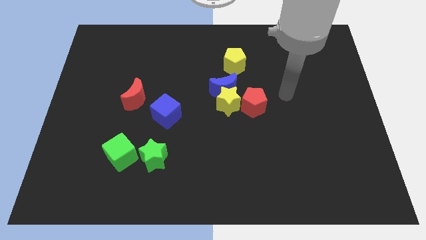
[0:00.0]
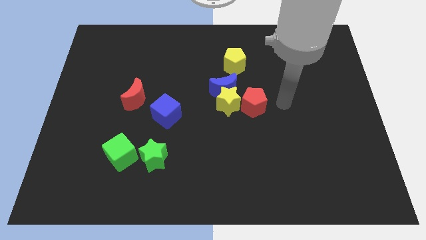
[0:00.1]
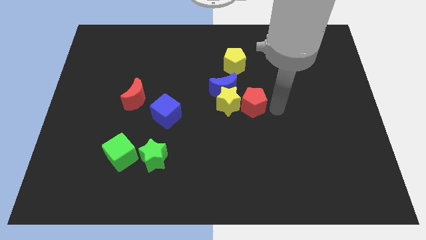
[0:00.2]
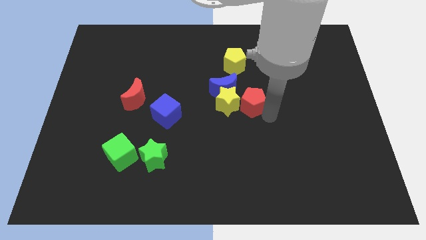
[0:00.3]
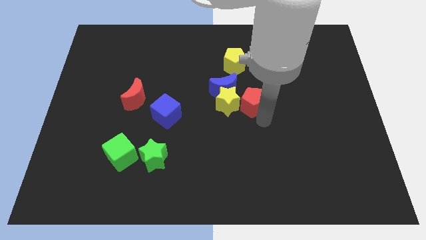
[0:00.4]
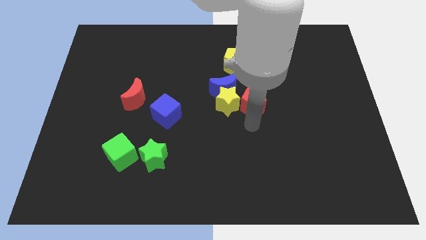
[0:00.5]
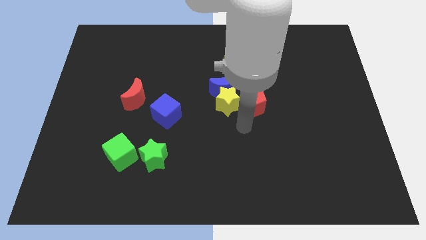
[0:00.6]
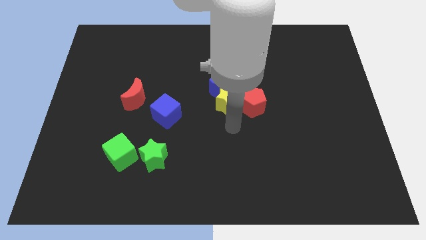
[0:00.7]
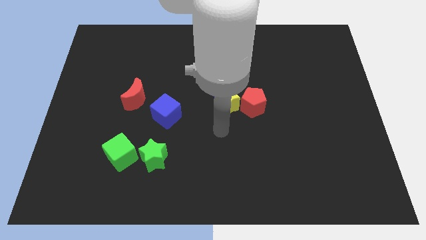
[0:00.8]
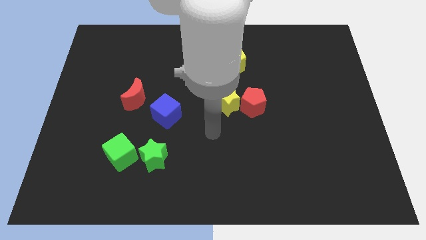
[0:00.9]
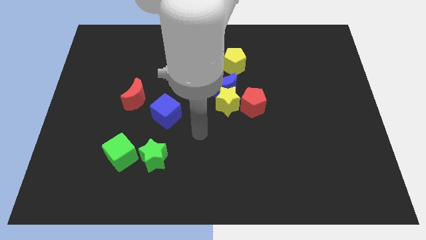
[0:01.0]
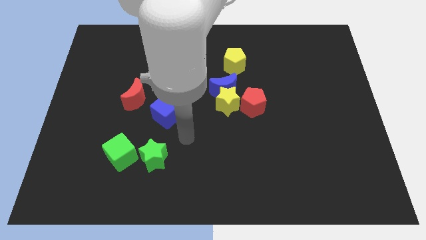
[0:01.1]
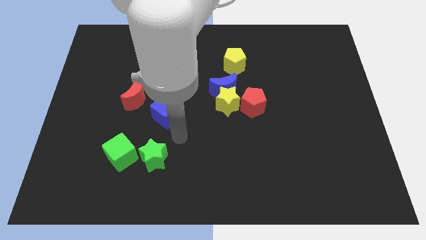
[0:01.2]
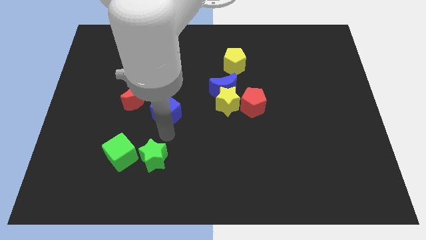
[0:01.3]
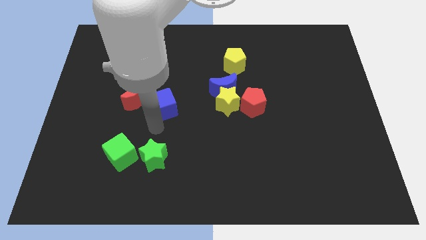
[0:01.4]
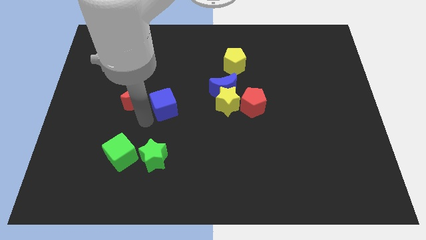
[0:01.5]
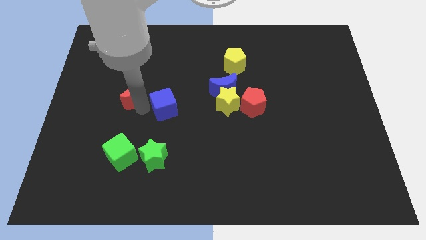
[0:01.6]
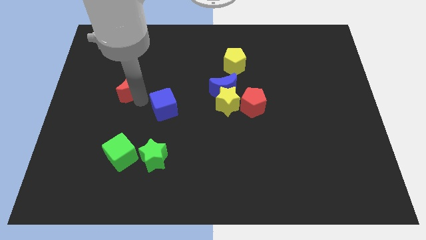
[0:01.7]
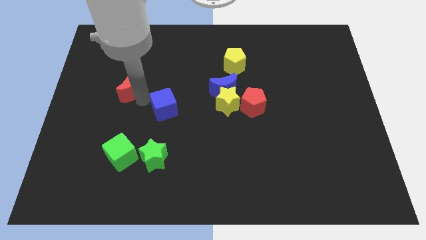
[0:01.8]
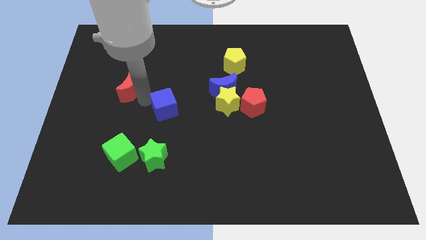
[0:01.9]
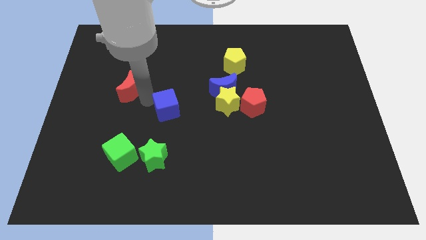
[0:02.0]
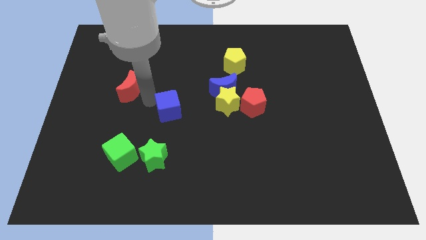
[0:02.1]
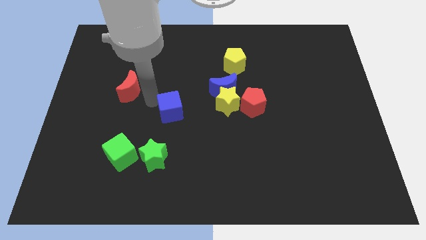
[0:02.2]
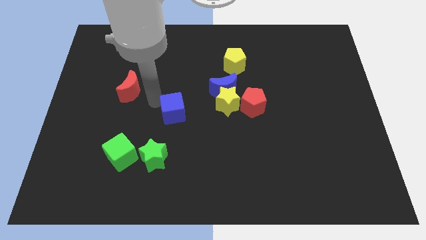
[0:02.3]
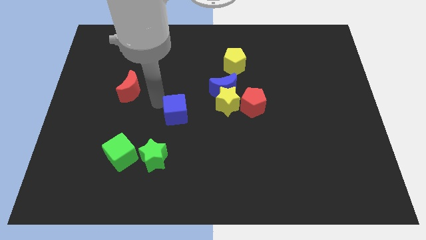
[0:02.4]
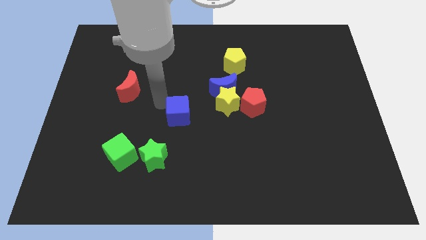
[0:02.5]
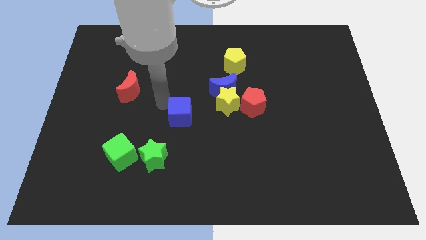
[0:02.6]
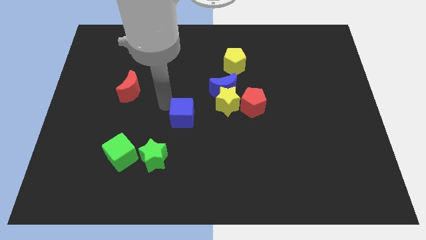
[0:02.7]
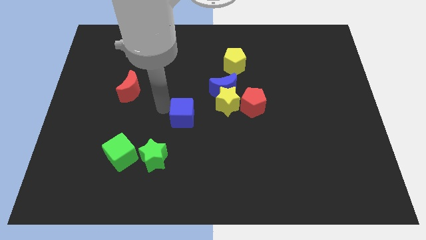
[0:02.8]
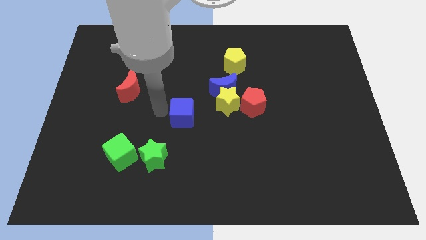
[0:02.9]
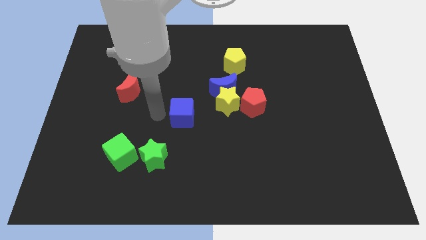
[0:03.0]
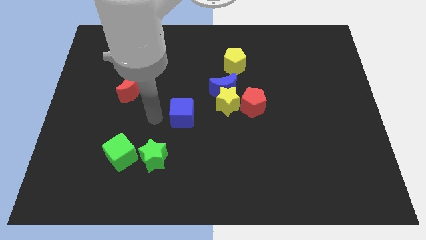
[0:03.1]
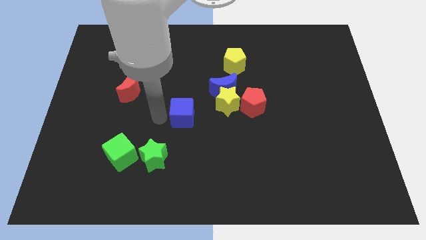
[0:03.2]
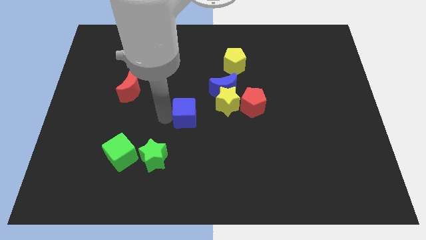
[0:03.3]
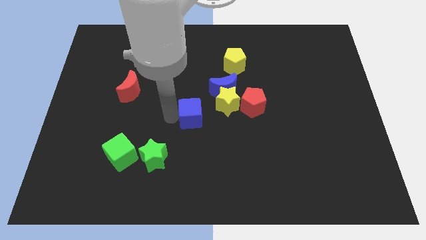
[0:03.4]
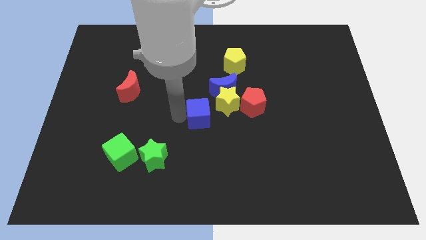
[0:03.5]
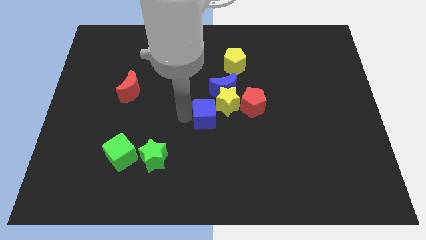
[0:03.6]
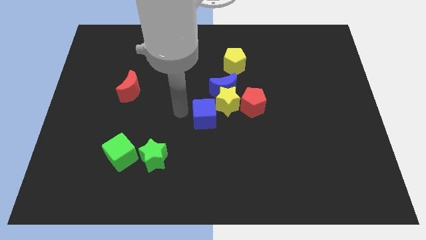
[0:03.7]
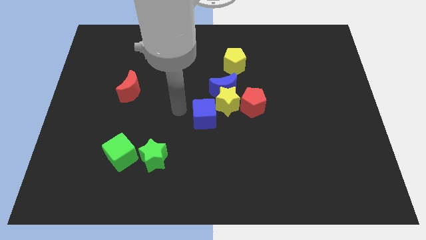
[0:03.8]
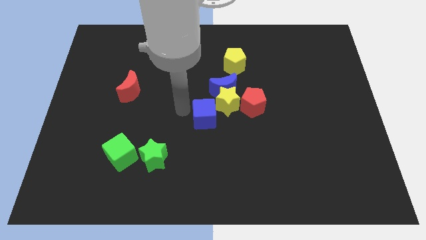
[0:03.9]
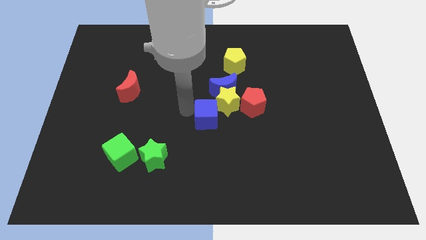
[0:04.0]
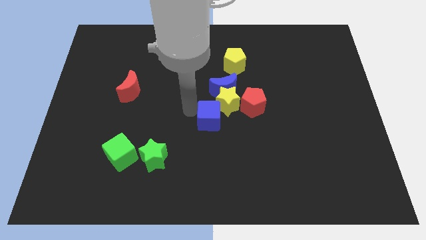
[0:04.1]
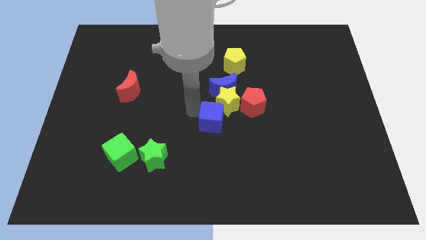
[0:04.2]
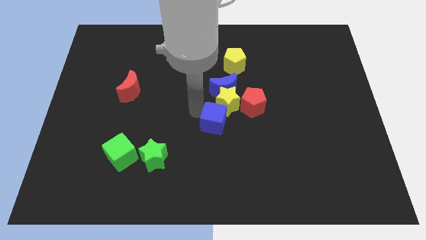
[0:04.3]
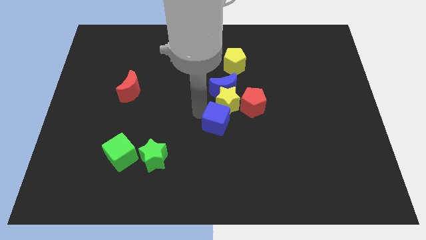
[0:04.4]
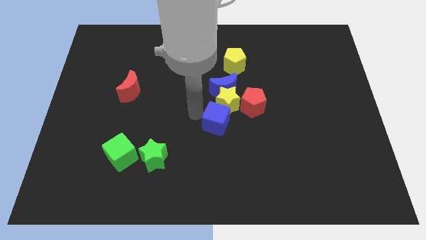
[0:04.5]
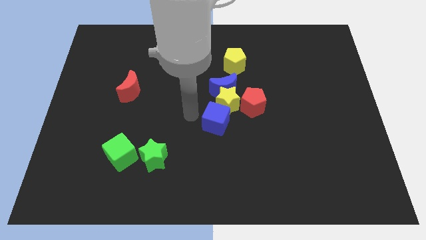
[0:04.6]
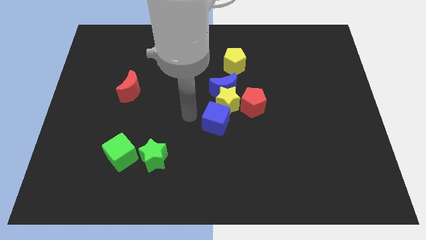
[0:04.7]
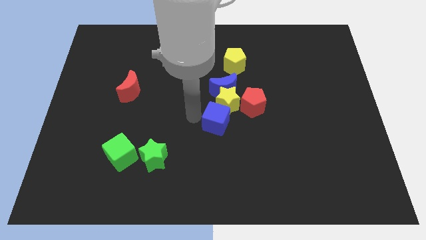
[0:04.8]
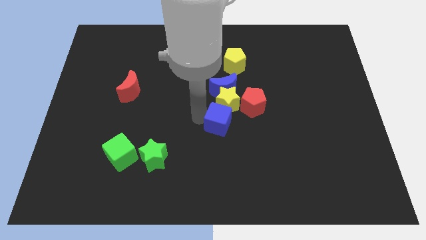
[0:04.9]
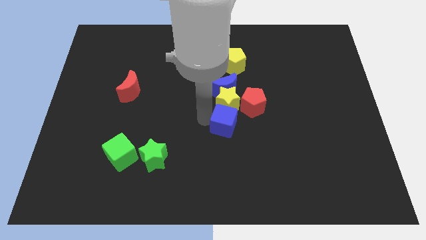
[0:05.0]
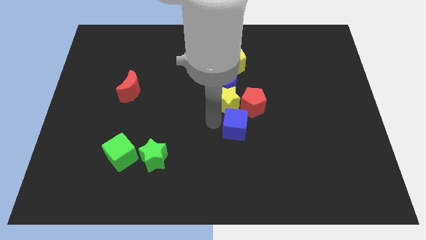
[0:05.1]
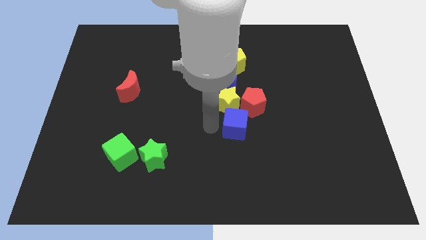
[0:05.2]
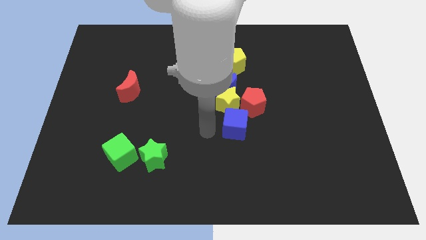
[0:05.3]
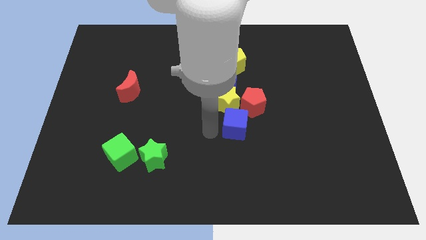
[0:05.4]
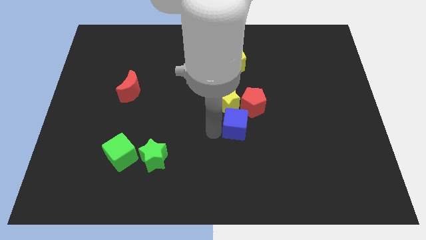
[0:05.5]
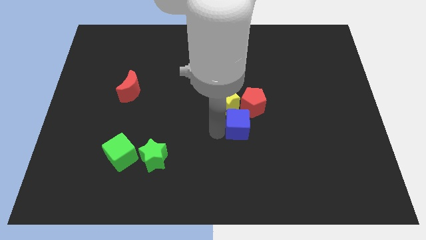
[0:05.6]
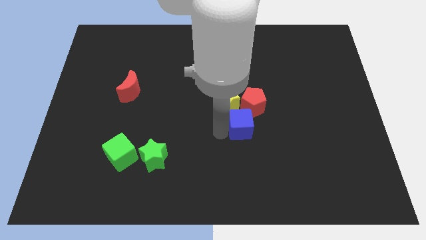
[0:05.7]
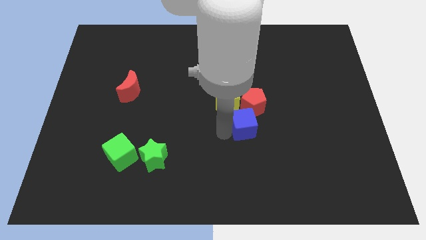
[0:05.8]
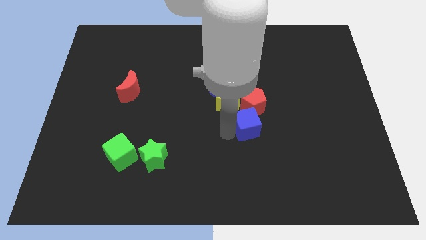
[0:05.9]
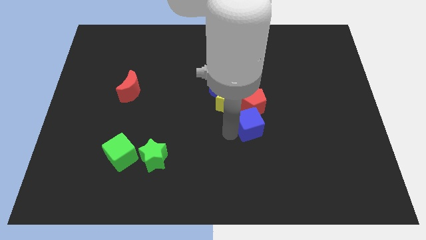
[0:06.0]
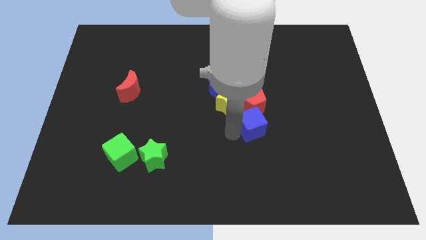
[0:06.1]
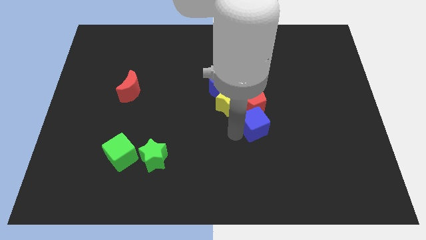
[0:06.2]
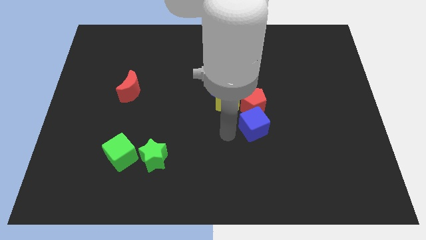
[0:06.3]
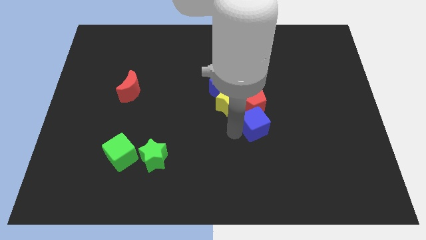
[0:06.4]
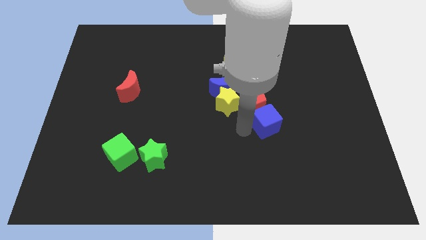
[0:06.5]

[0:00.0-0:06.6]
move the blue cube to the right

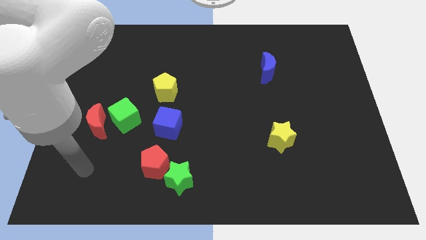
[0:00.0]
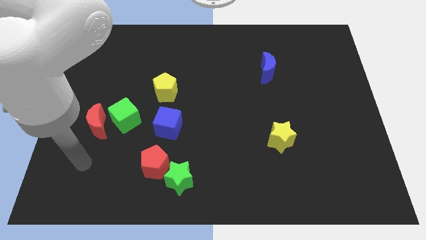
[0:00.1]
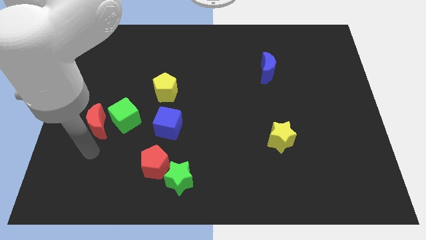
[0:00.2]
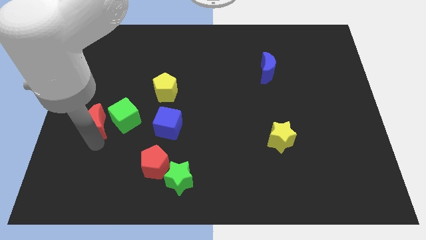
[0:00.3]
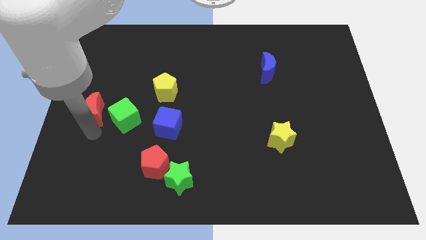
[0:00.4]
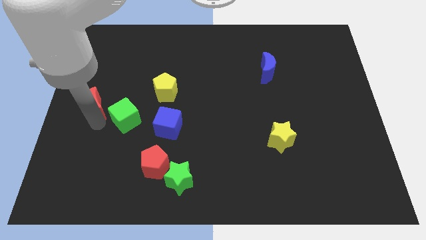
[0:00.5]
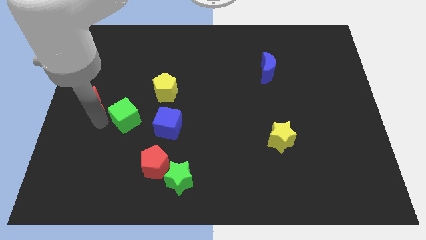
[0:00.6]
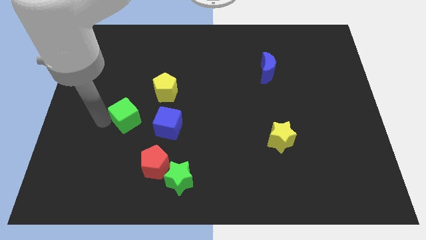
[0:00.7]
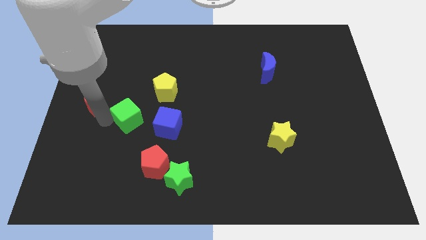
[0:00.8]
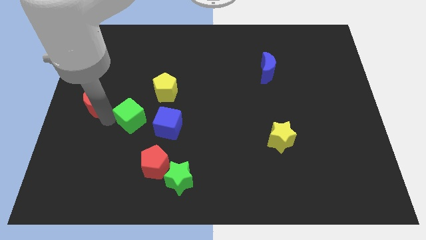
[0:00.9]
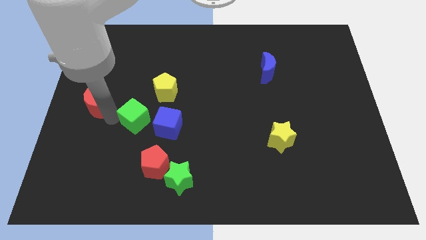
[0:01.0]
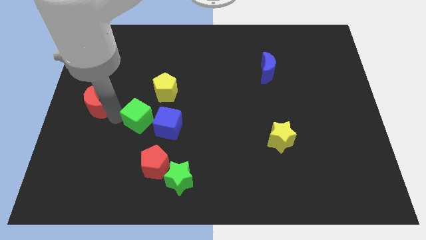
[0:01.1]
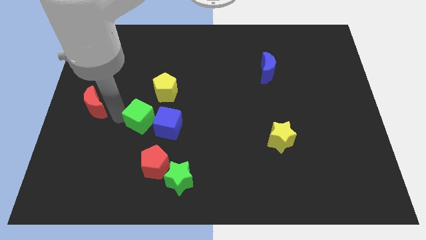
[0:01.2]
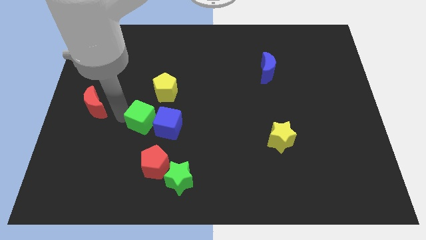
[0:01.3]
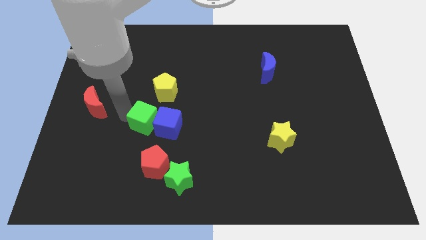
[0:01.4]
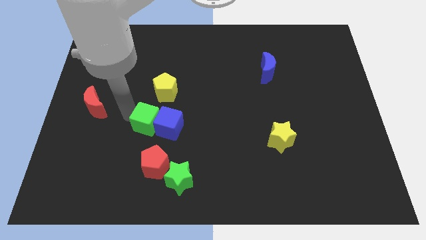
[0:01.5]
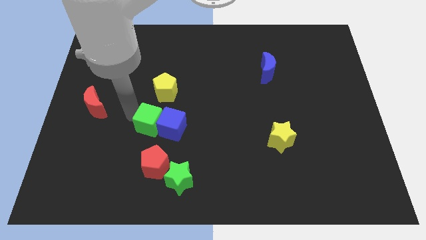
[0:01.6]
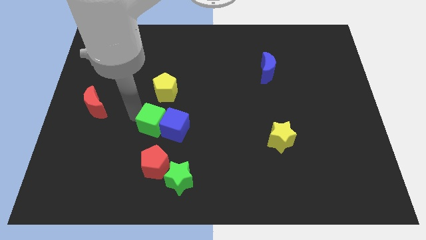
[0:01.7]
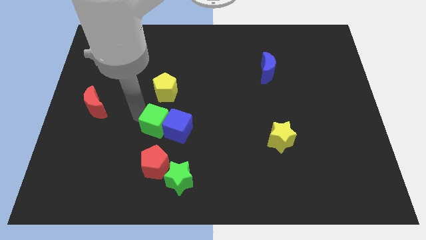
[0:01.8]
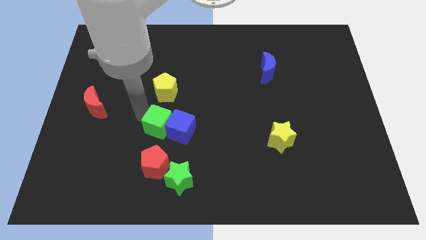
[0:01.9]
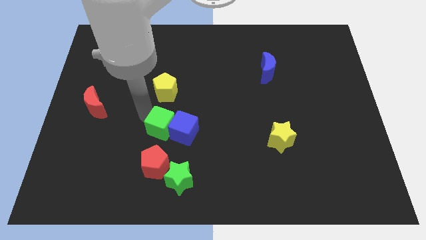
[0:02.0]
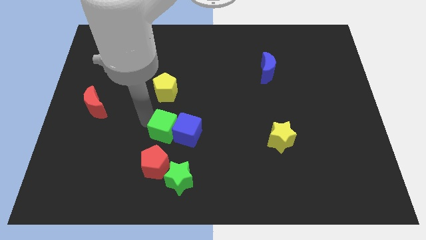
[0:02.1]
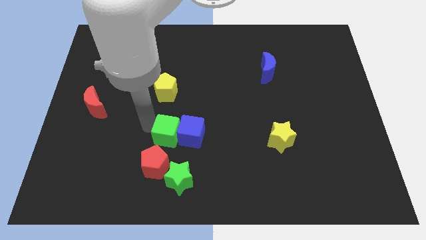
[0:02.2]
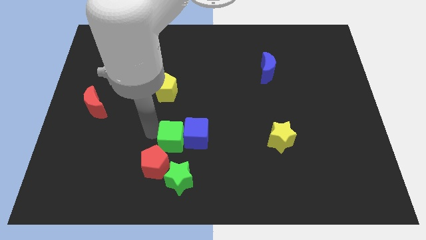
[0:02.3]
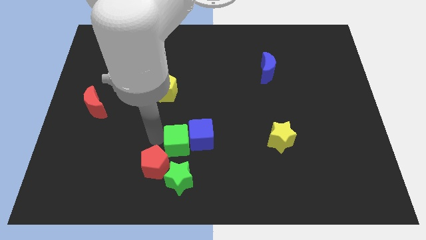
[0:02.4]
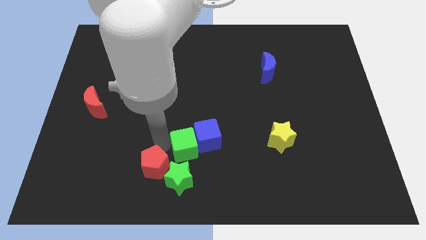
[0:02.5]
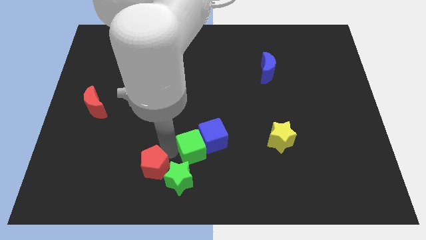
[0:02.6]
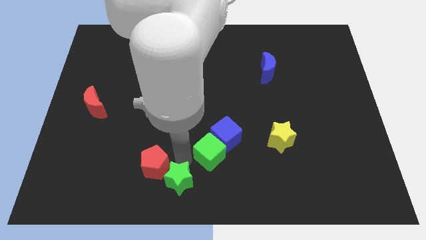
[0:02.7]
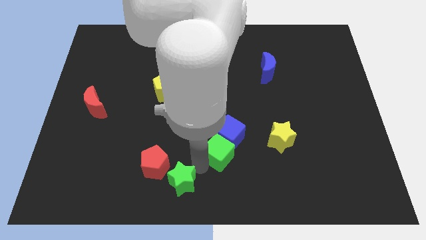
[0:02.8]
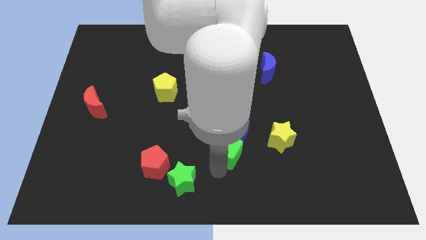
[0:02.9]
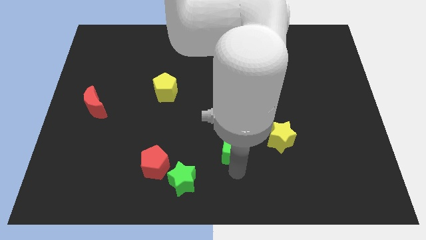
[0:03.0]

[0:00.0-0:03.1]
push the green cube right
